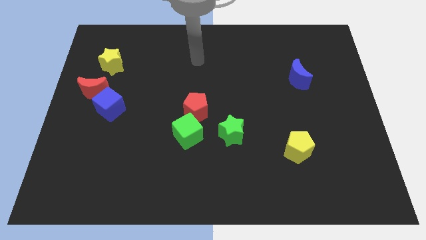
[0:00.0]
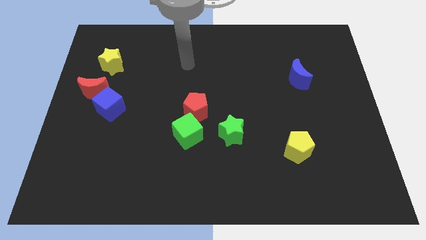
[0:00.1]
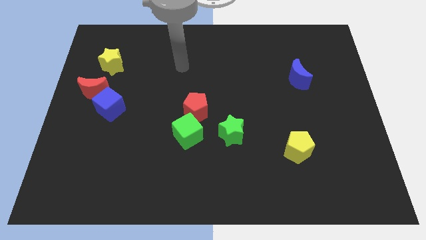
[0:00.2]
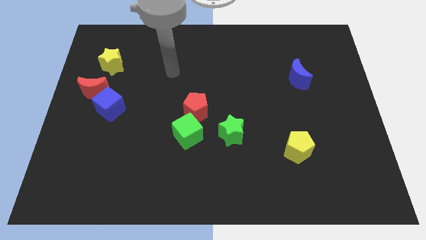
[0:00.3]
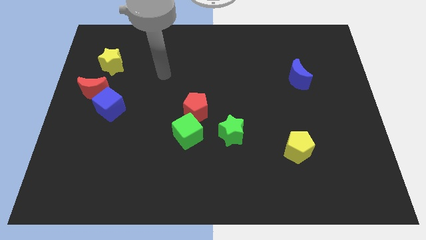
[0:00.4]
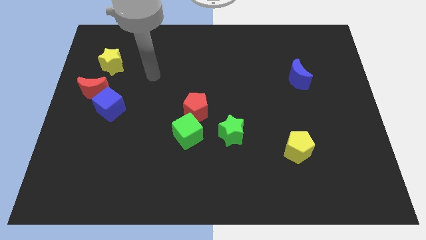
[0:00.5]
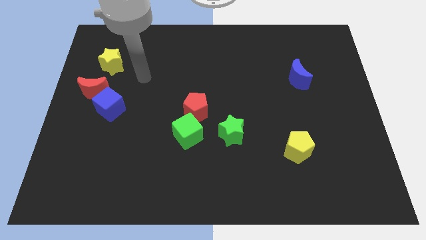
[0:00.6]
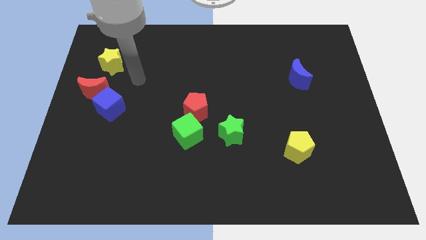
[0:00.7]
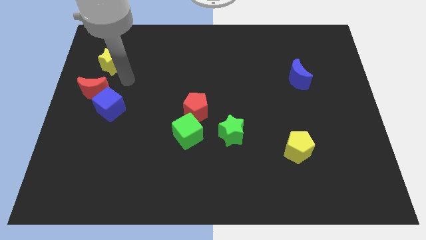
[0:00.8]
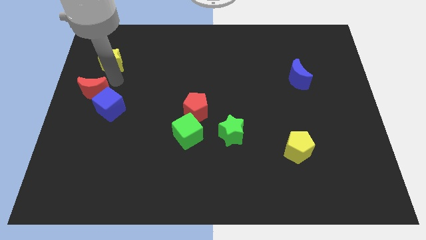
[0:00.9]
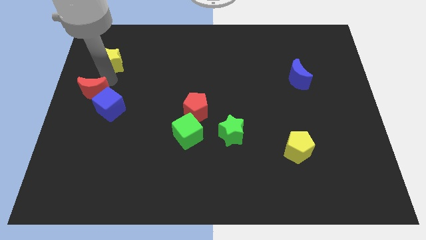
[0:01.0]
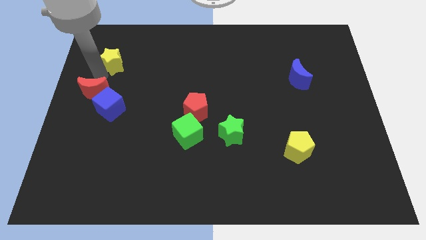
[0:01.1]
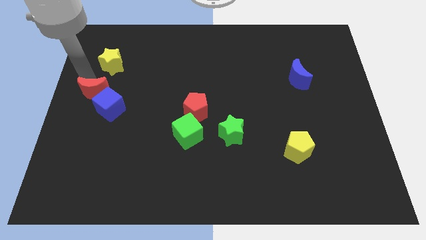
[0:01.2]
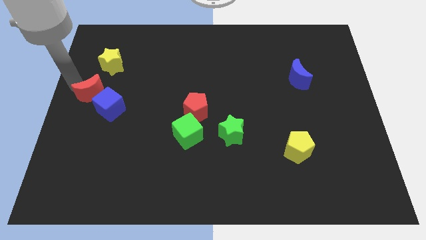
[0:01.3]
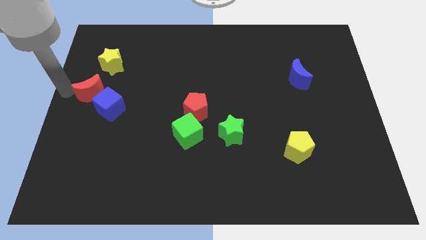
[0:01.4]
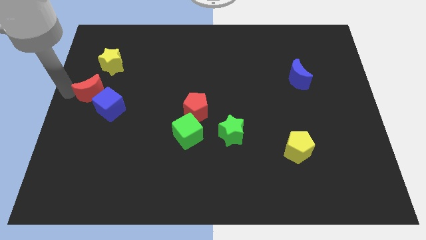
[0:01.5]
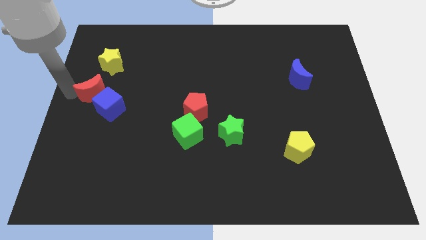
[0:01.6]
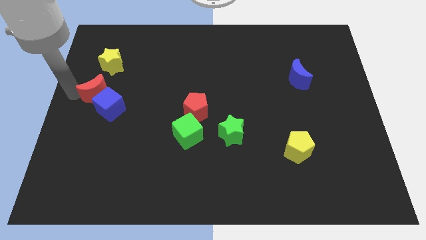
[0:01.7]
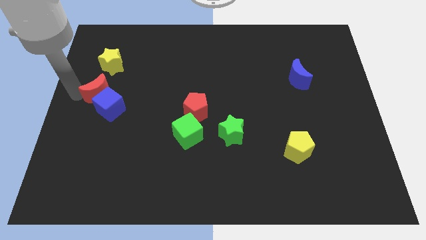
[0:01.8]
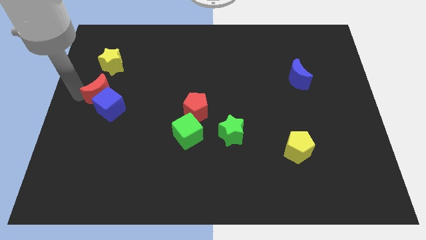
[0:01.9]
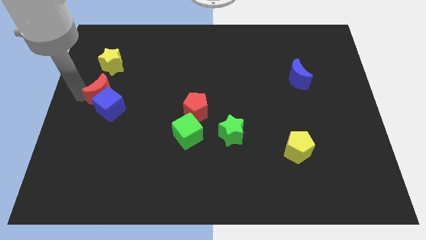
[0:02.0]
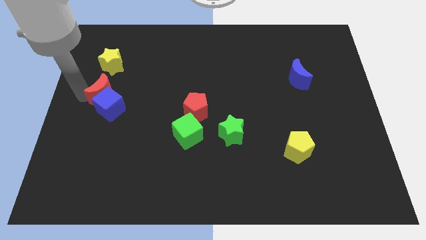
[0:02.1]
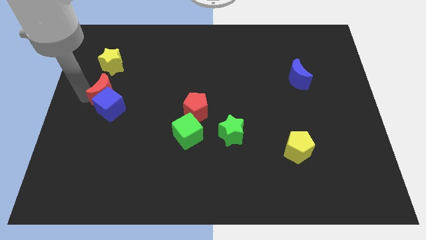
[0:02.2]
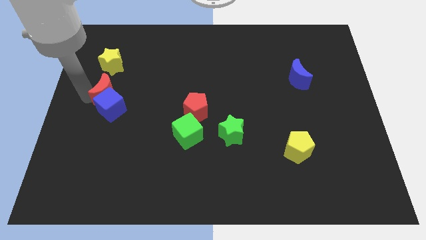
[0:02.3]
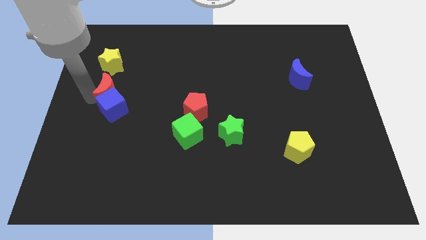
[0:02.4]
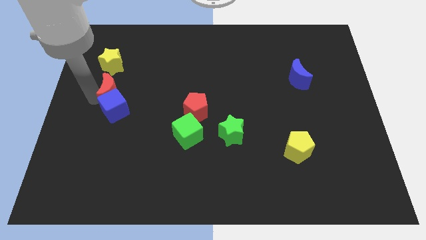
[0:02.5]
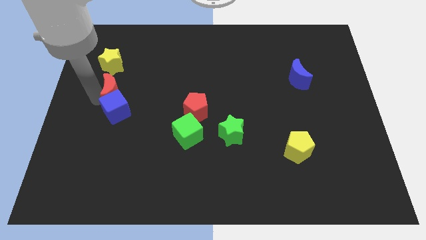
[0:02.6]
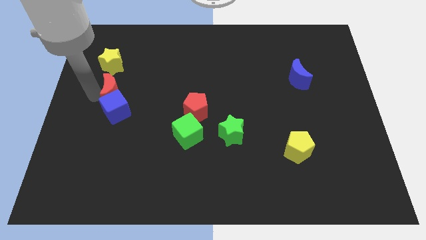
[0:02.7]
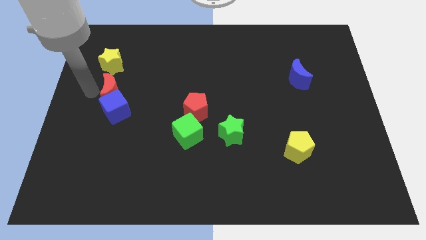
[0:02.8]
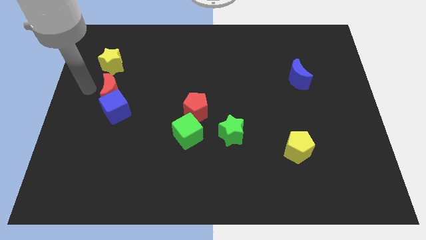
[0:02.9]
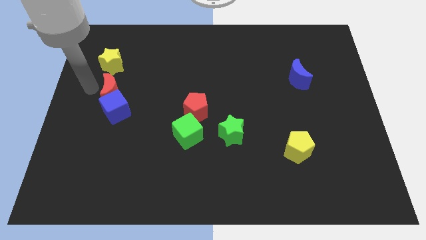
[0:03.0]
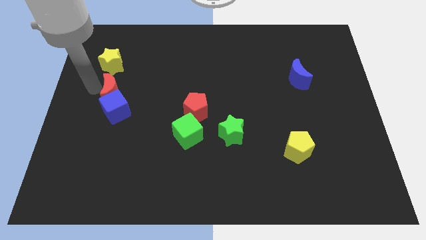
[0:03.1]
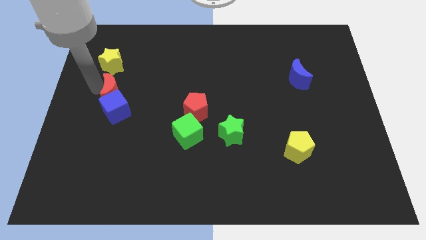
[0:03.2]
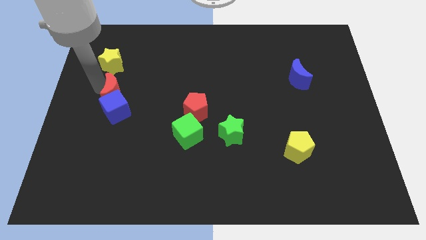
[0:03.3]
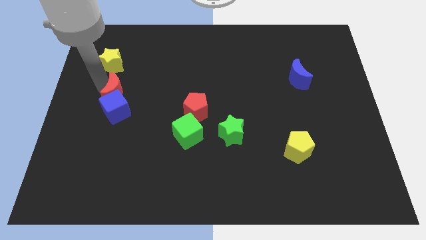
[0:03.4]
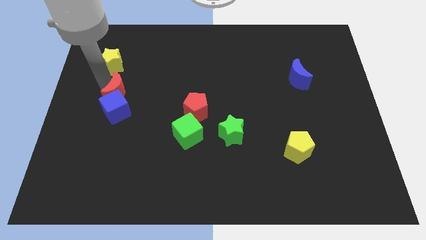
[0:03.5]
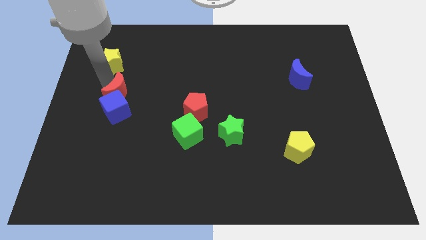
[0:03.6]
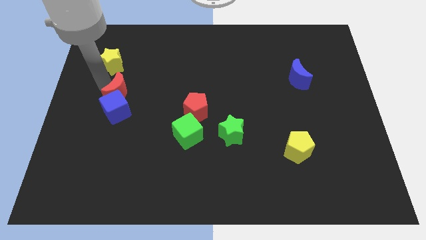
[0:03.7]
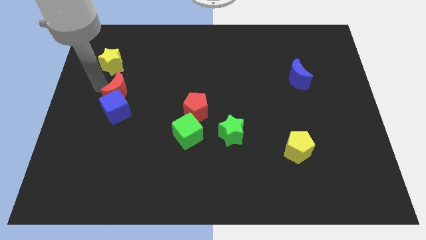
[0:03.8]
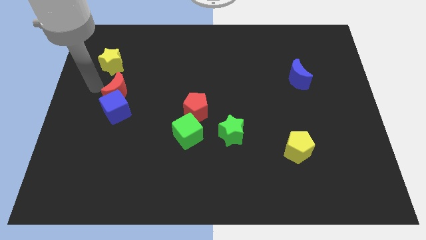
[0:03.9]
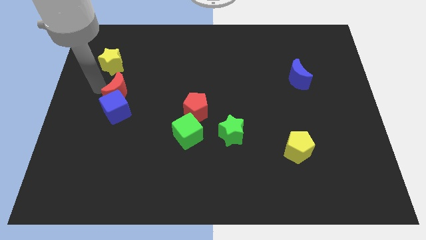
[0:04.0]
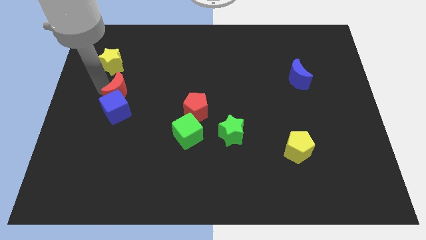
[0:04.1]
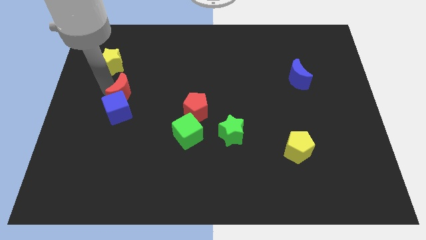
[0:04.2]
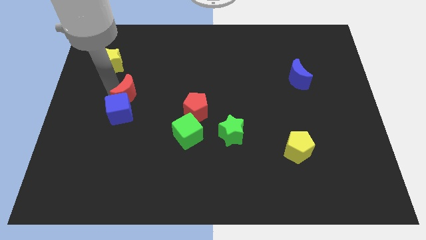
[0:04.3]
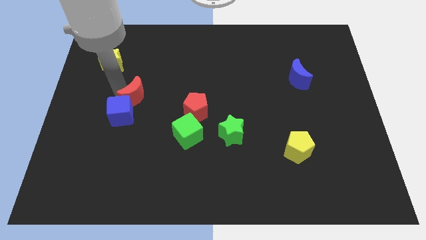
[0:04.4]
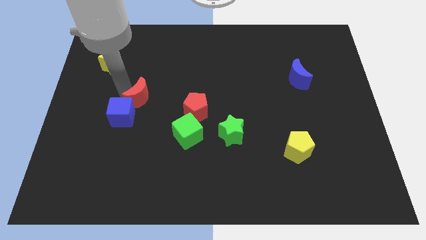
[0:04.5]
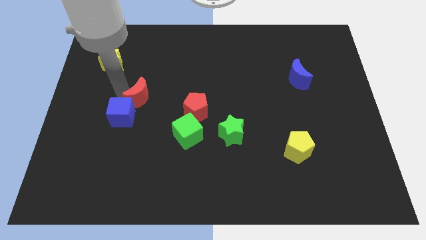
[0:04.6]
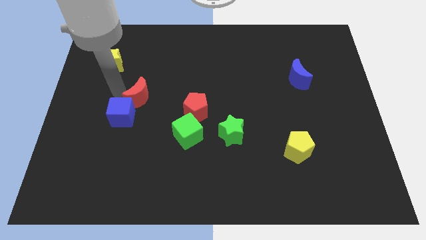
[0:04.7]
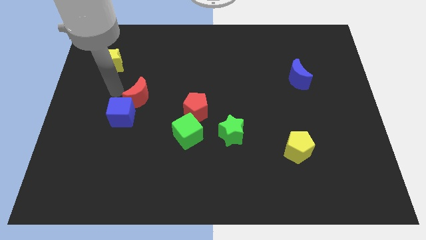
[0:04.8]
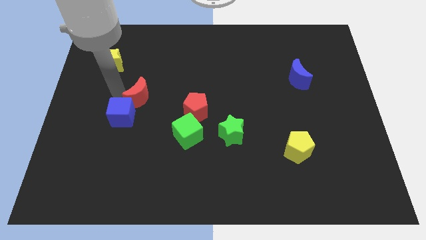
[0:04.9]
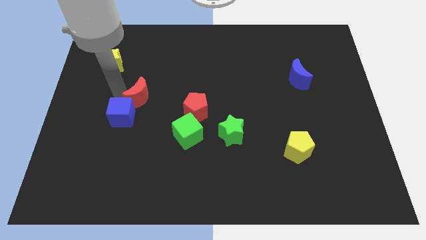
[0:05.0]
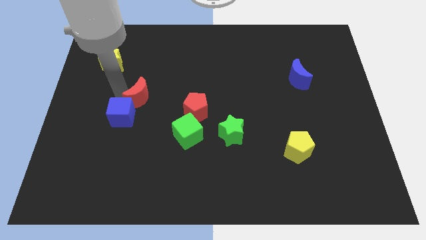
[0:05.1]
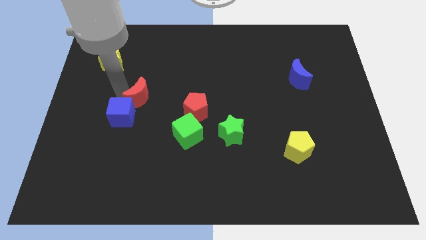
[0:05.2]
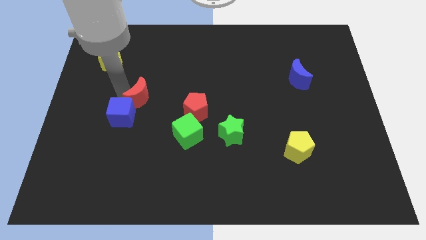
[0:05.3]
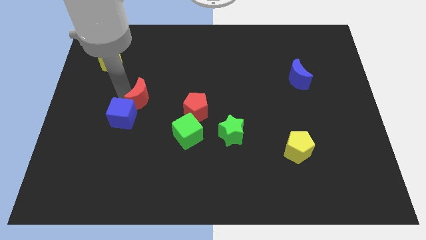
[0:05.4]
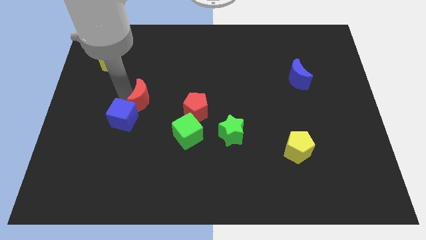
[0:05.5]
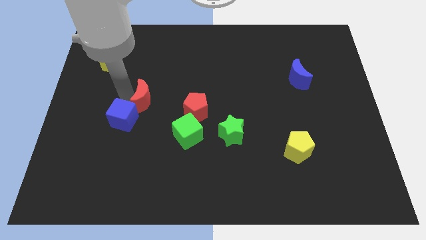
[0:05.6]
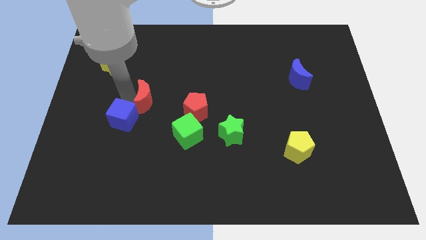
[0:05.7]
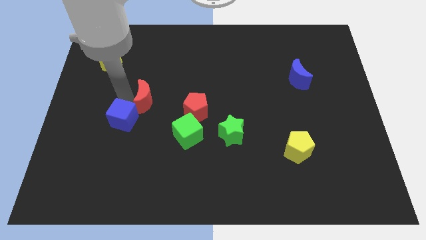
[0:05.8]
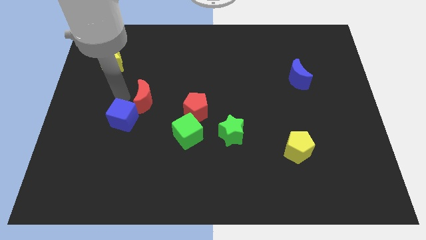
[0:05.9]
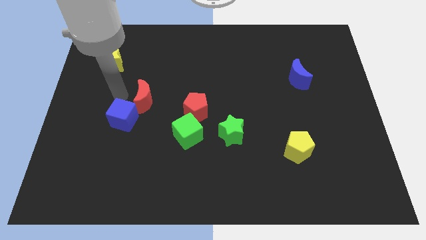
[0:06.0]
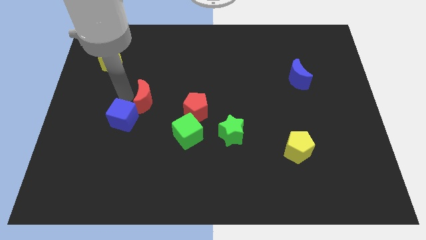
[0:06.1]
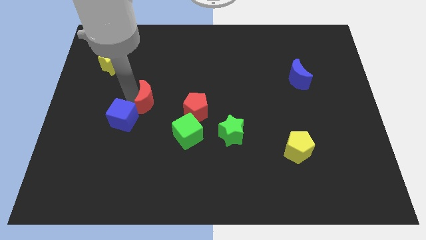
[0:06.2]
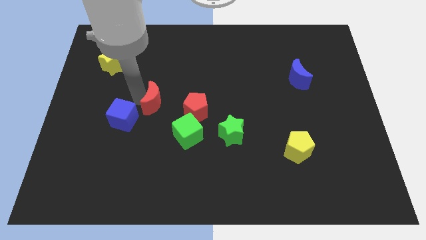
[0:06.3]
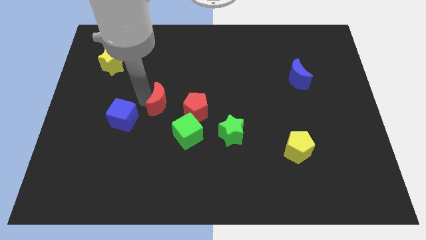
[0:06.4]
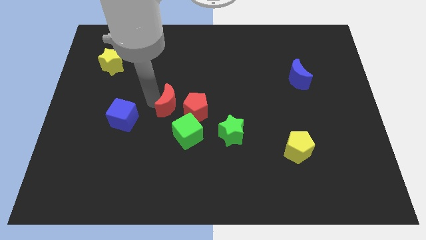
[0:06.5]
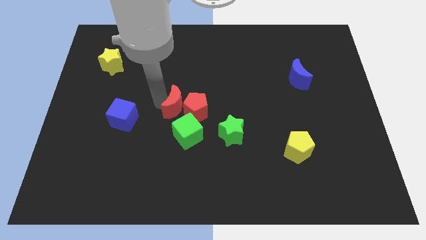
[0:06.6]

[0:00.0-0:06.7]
move the red moon to the red pentagon
